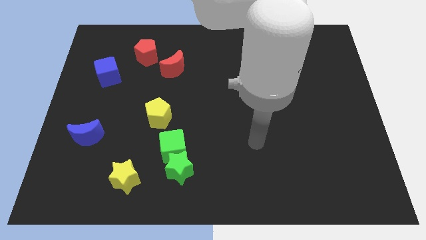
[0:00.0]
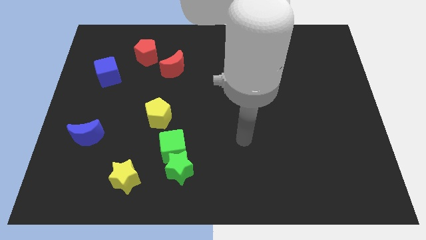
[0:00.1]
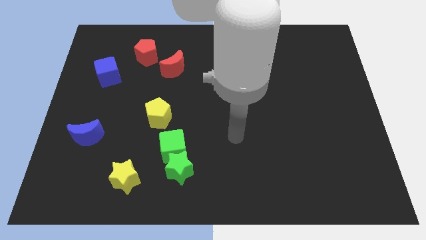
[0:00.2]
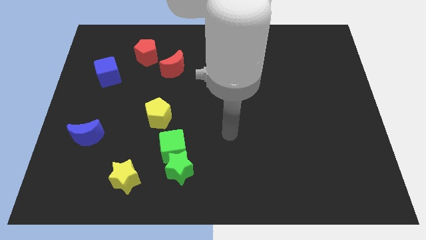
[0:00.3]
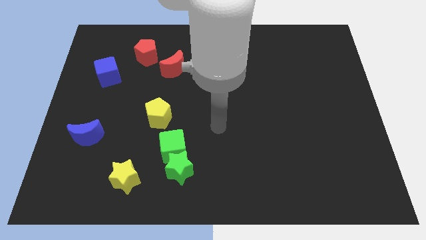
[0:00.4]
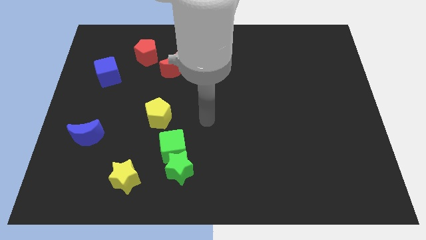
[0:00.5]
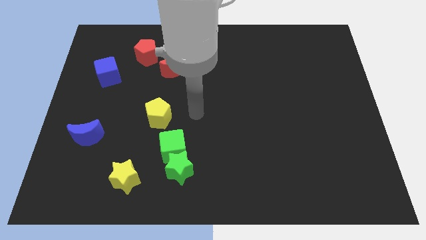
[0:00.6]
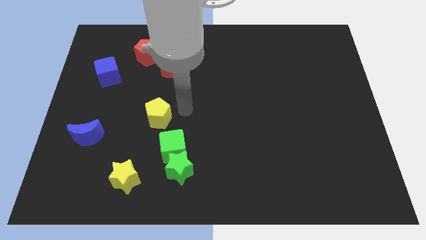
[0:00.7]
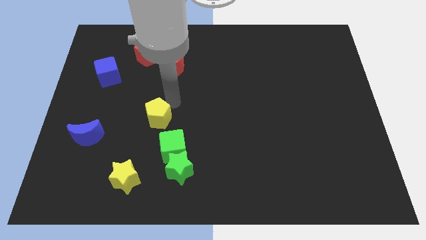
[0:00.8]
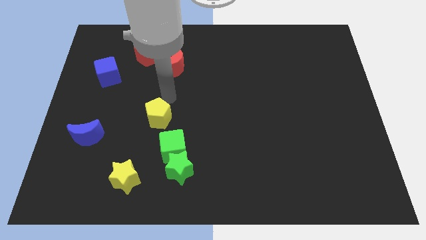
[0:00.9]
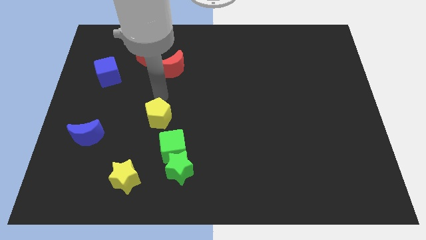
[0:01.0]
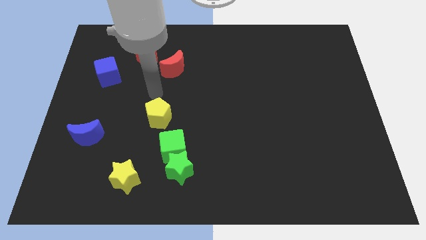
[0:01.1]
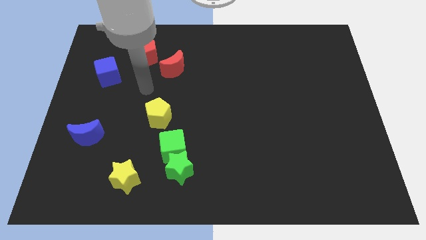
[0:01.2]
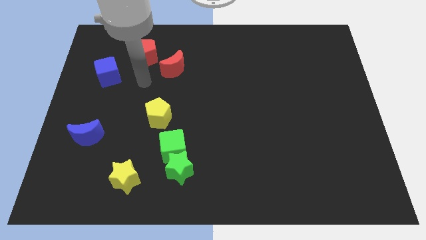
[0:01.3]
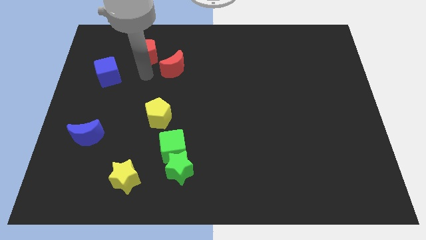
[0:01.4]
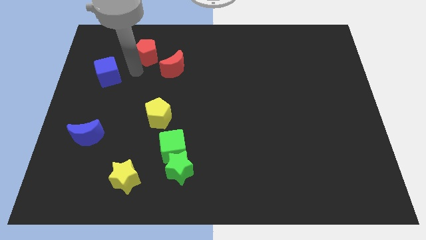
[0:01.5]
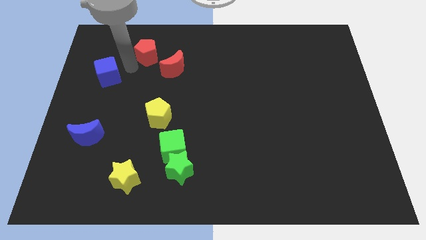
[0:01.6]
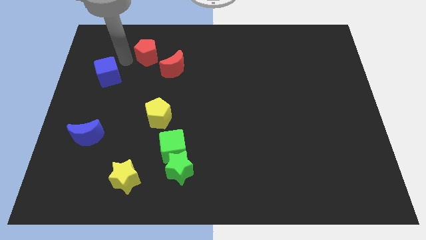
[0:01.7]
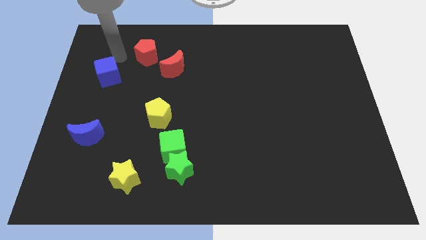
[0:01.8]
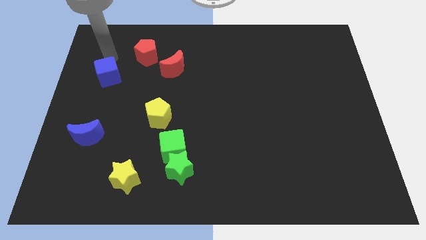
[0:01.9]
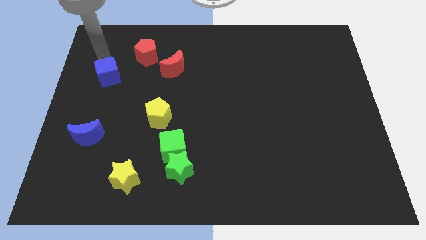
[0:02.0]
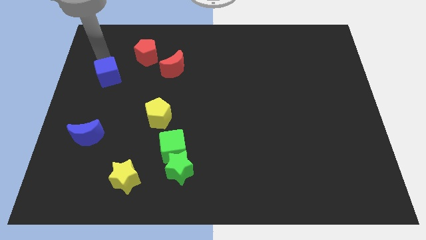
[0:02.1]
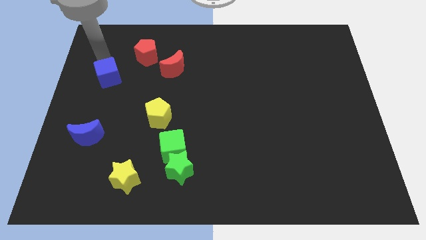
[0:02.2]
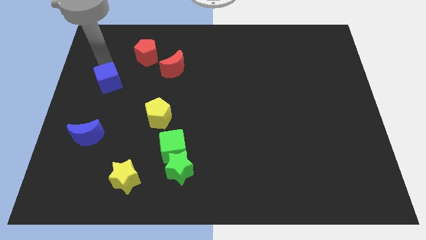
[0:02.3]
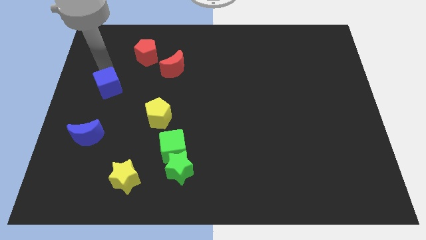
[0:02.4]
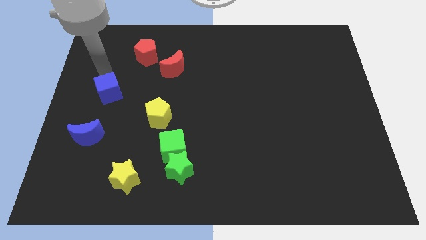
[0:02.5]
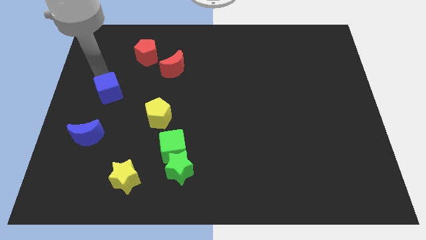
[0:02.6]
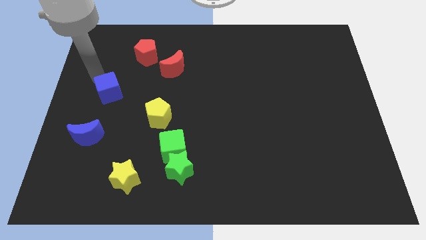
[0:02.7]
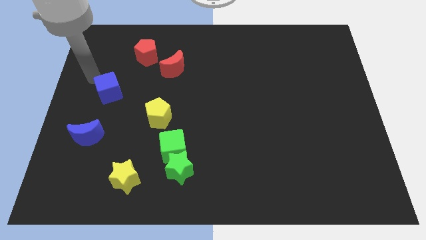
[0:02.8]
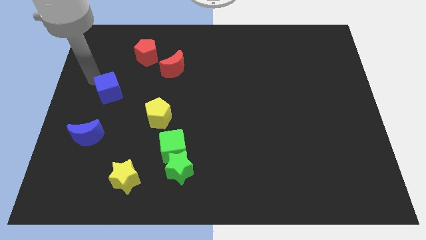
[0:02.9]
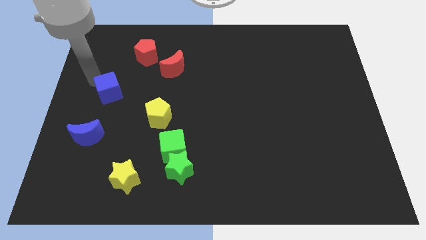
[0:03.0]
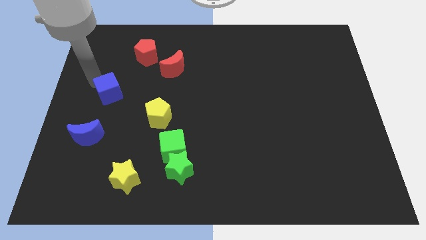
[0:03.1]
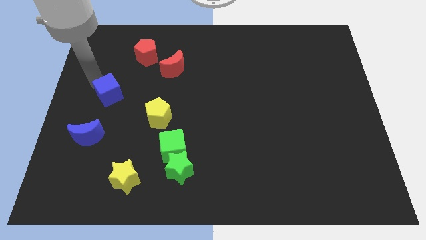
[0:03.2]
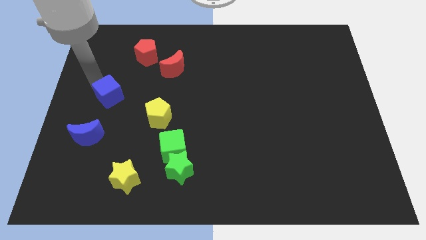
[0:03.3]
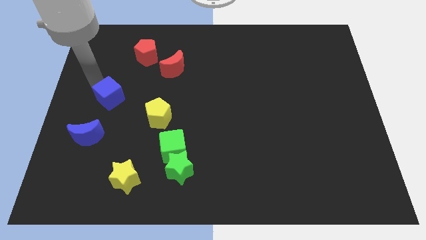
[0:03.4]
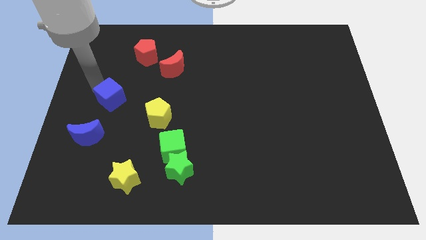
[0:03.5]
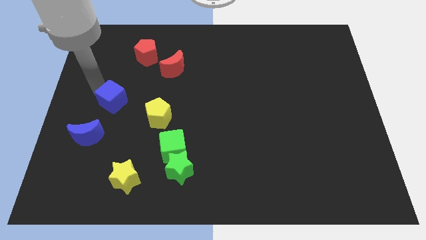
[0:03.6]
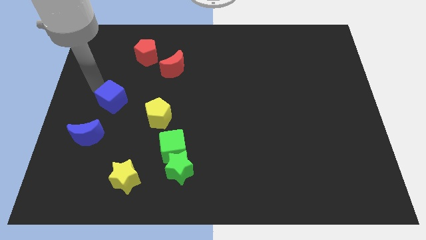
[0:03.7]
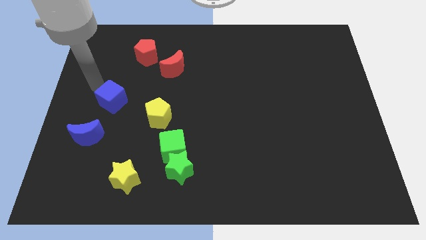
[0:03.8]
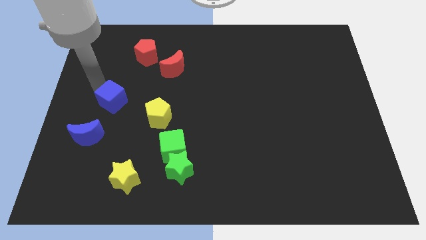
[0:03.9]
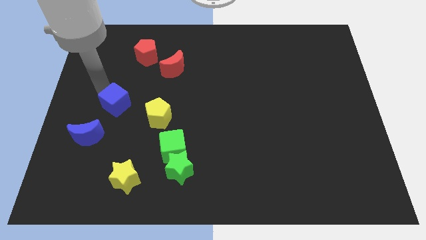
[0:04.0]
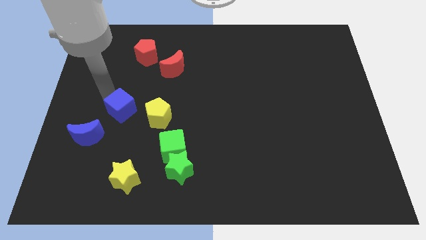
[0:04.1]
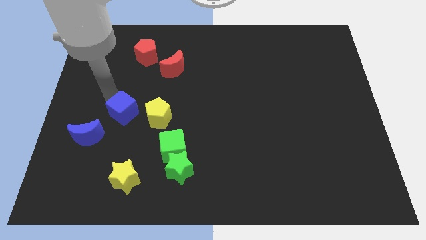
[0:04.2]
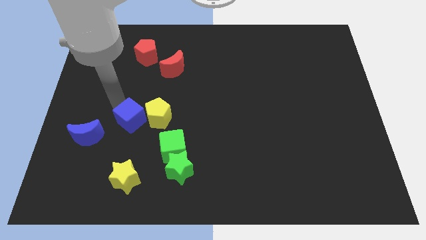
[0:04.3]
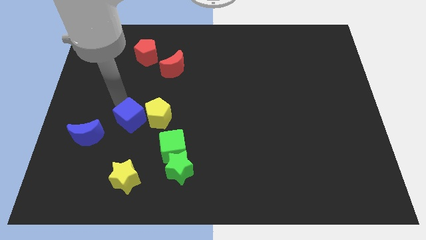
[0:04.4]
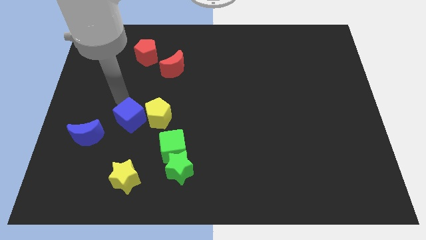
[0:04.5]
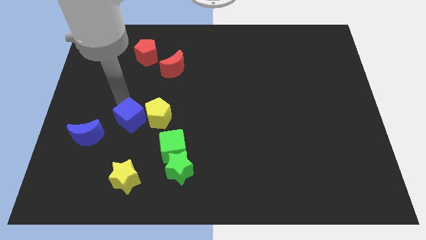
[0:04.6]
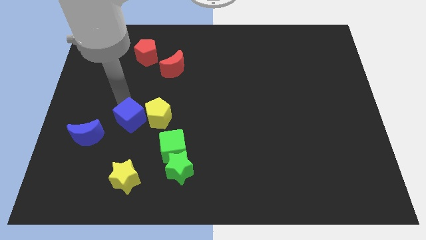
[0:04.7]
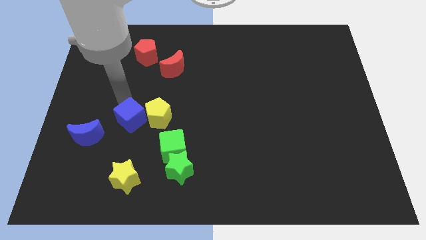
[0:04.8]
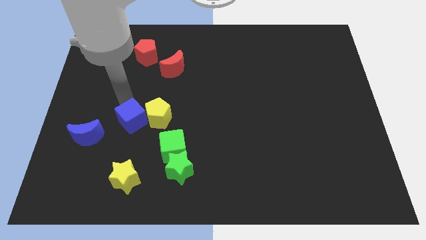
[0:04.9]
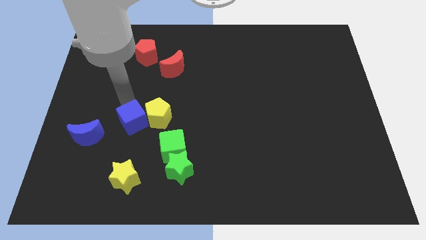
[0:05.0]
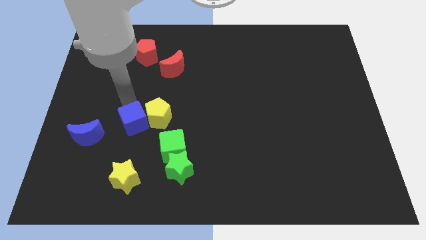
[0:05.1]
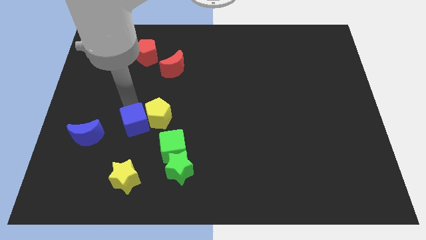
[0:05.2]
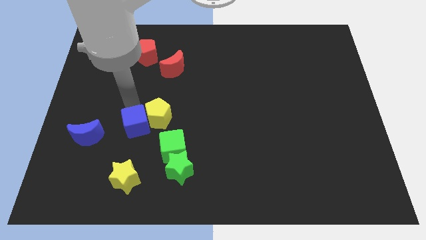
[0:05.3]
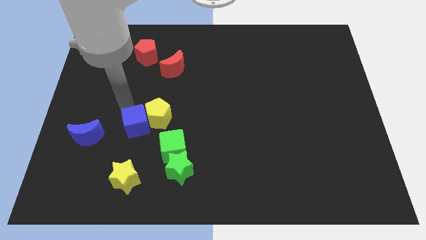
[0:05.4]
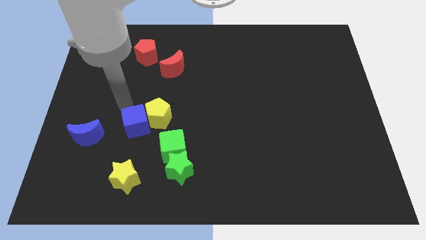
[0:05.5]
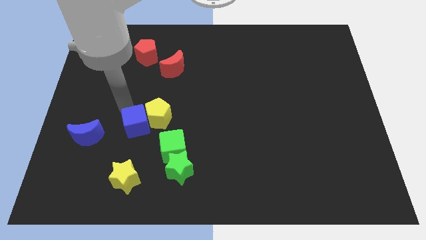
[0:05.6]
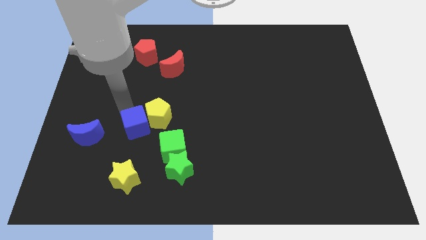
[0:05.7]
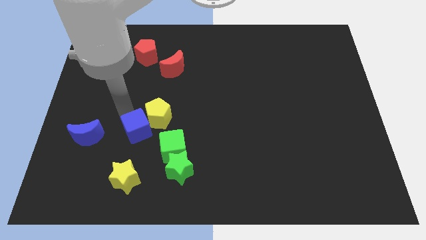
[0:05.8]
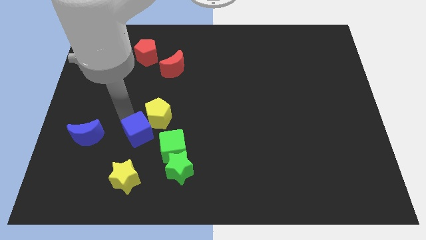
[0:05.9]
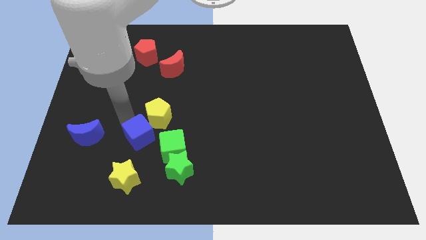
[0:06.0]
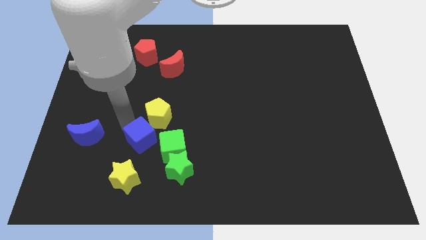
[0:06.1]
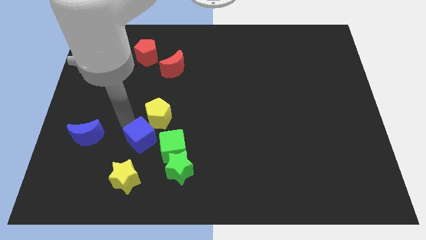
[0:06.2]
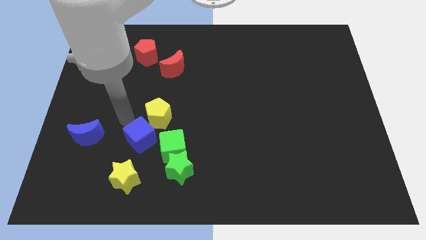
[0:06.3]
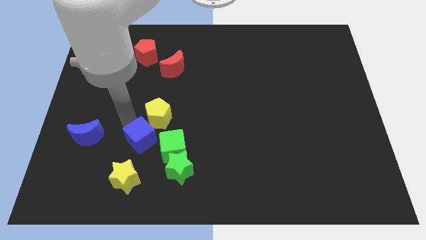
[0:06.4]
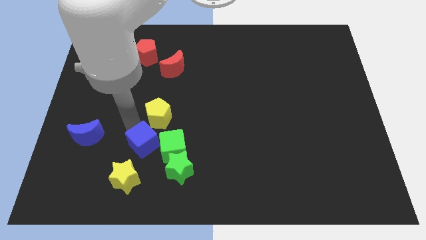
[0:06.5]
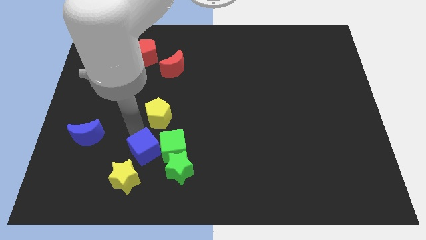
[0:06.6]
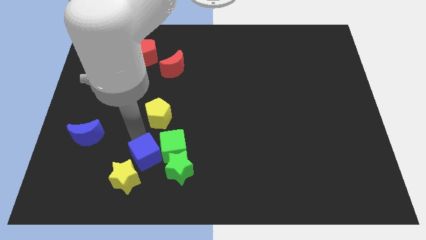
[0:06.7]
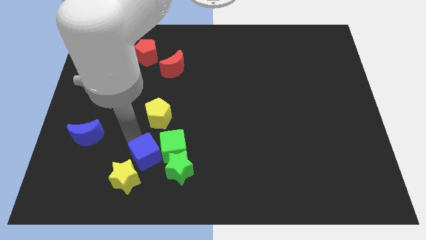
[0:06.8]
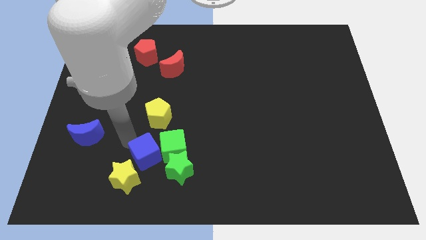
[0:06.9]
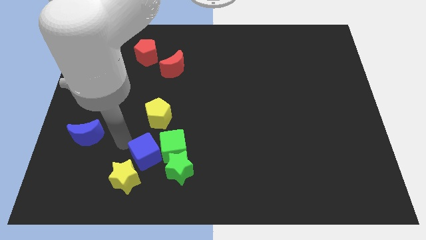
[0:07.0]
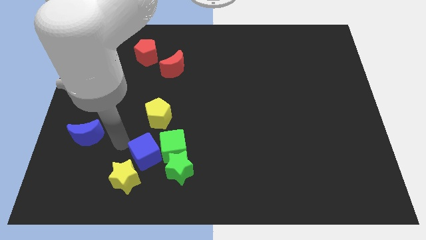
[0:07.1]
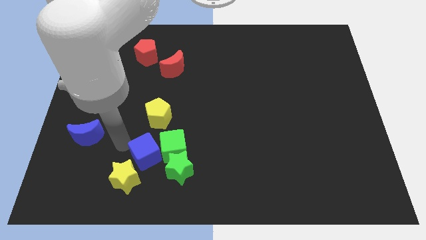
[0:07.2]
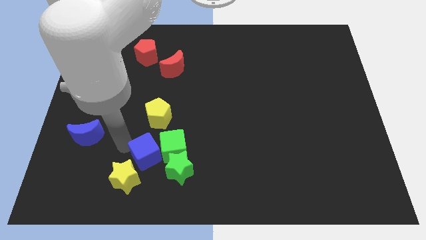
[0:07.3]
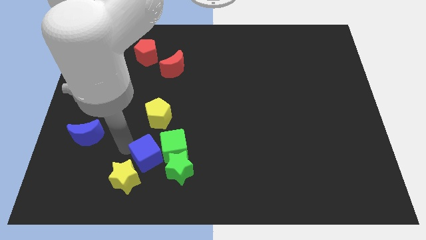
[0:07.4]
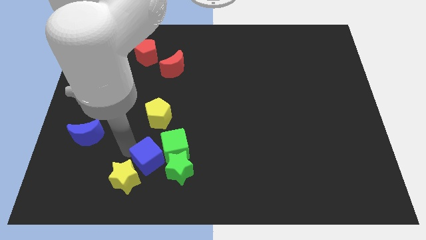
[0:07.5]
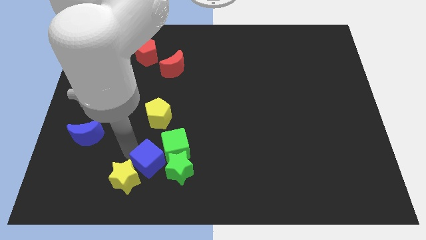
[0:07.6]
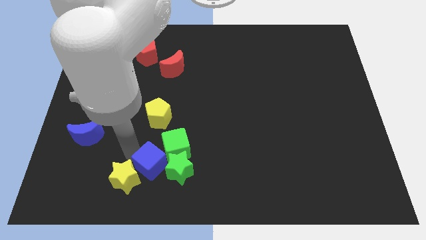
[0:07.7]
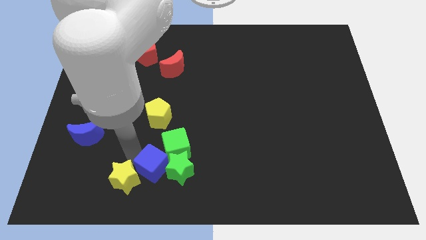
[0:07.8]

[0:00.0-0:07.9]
put the blue cube close to the green star
